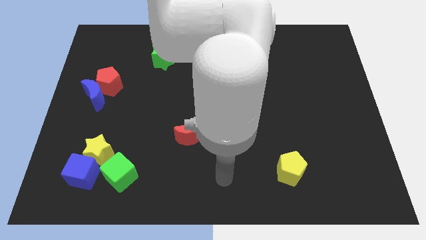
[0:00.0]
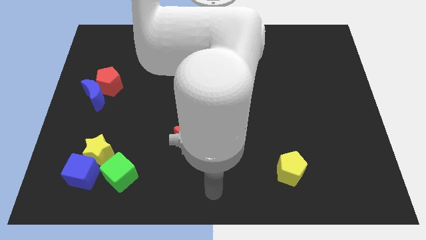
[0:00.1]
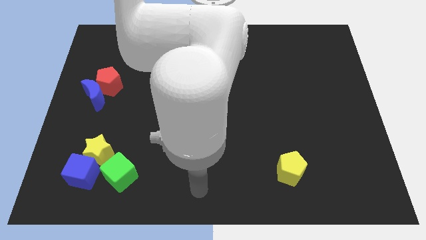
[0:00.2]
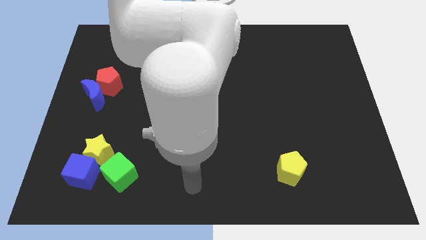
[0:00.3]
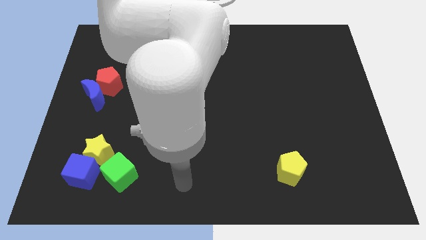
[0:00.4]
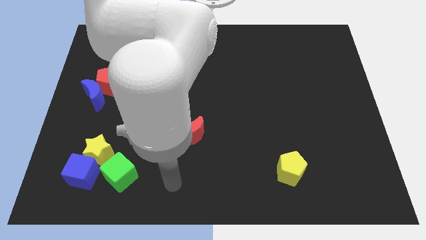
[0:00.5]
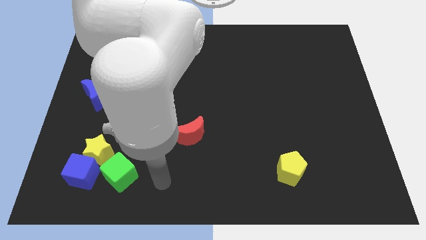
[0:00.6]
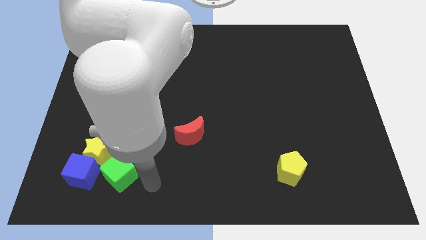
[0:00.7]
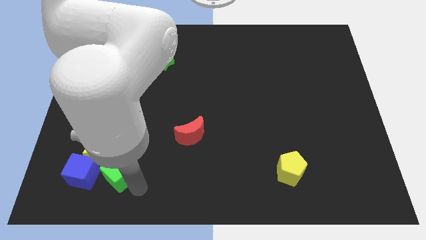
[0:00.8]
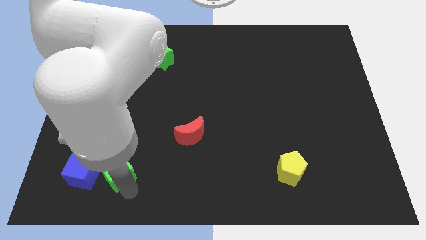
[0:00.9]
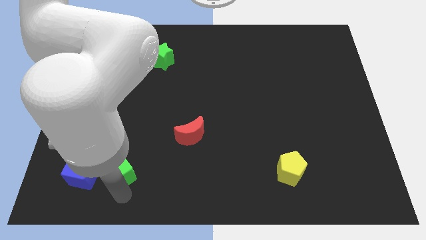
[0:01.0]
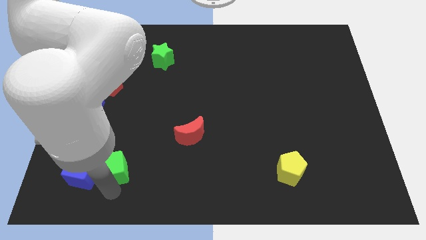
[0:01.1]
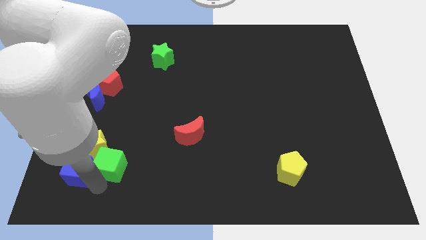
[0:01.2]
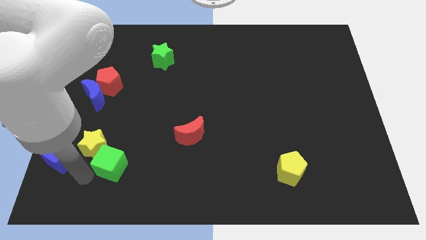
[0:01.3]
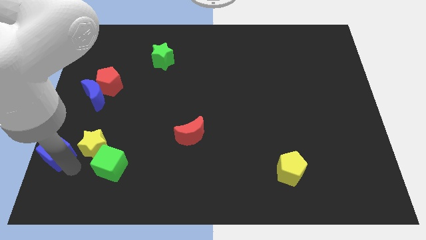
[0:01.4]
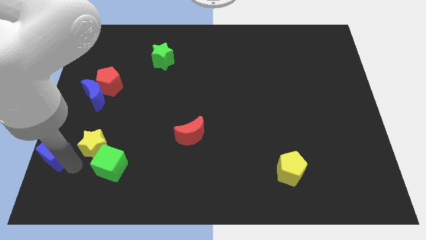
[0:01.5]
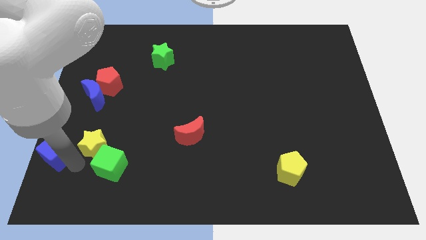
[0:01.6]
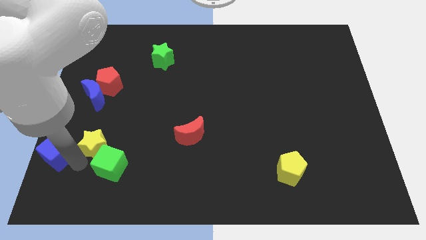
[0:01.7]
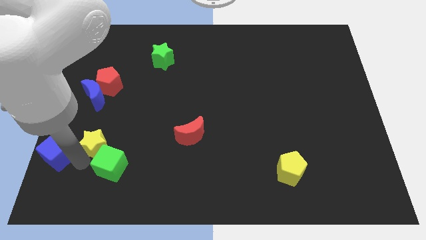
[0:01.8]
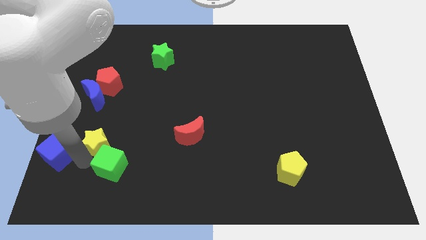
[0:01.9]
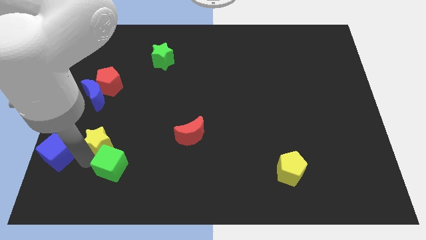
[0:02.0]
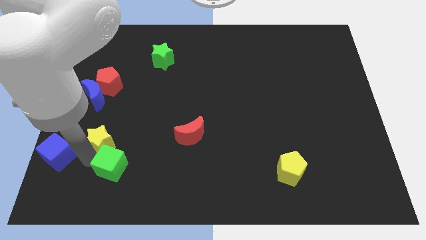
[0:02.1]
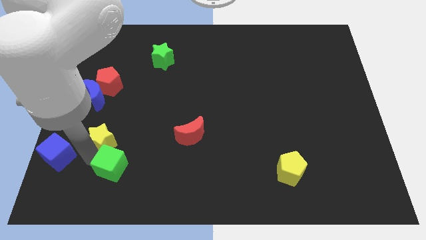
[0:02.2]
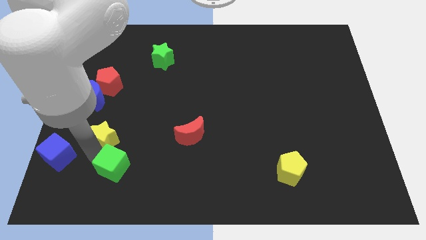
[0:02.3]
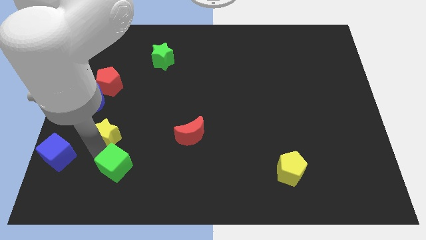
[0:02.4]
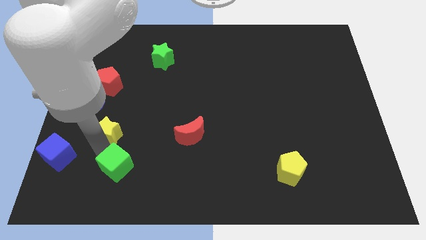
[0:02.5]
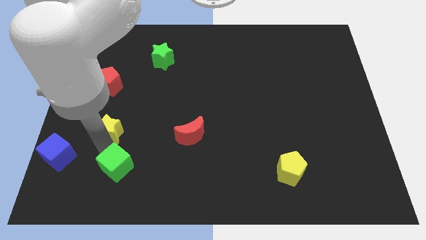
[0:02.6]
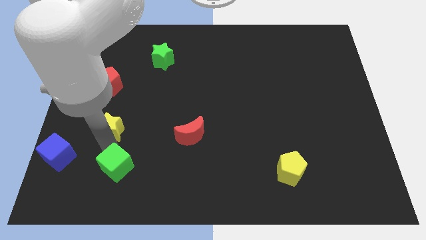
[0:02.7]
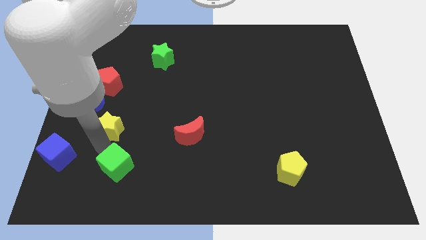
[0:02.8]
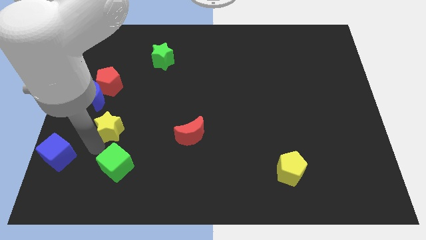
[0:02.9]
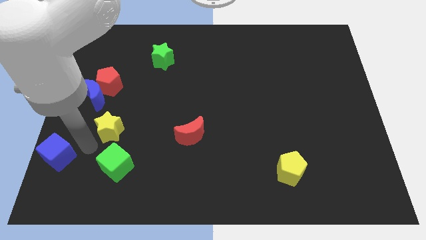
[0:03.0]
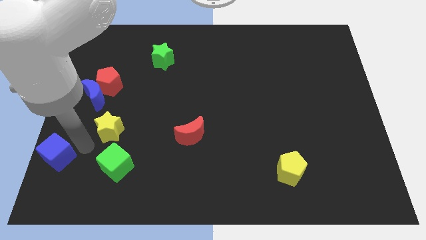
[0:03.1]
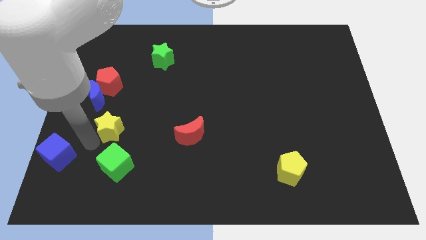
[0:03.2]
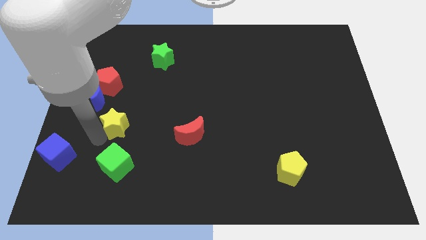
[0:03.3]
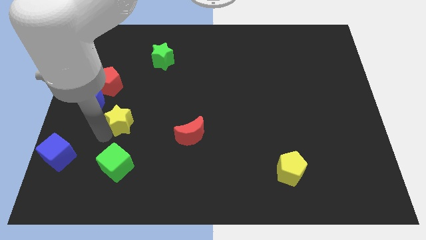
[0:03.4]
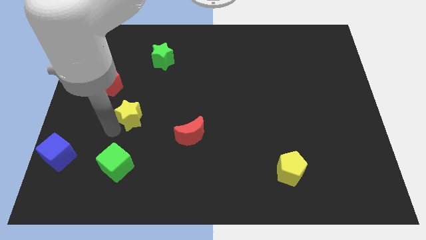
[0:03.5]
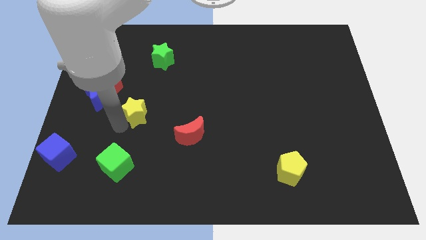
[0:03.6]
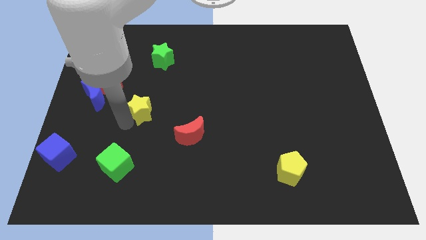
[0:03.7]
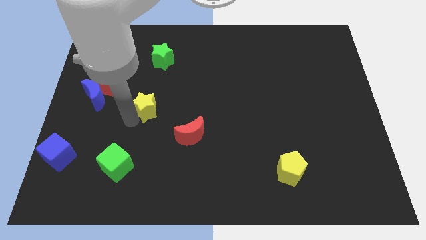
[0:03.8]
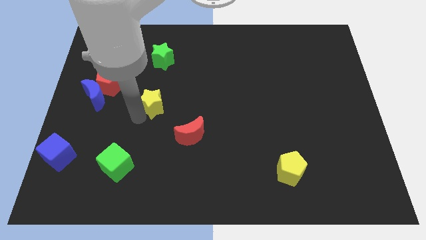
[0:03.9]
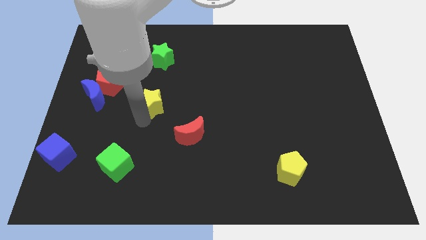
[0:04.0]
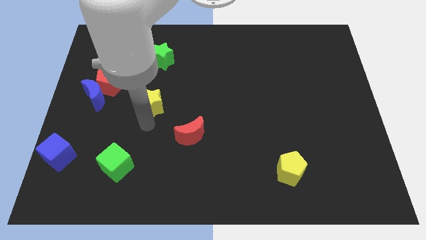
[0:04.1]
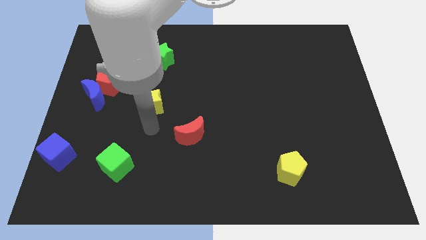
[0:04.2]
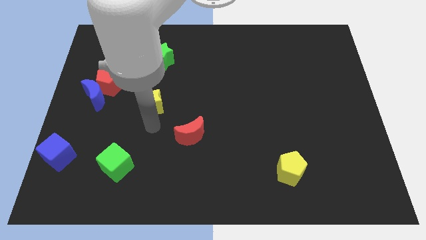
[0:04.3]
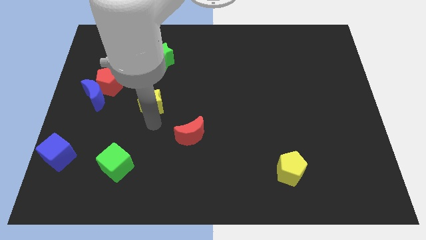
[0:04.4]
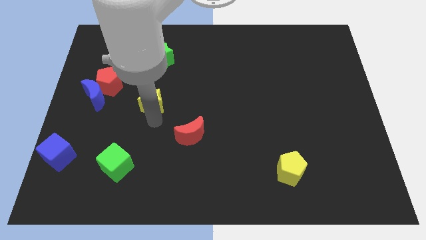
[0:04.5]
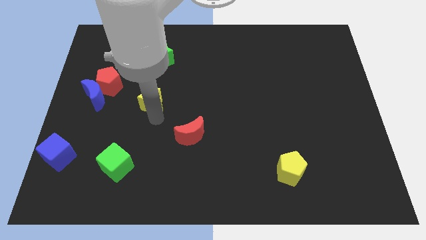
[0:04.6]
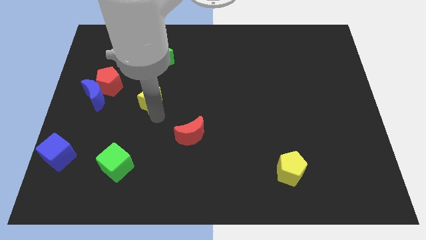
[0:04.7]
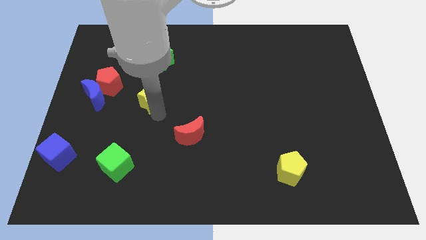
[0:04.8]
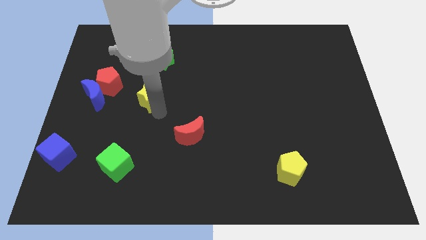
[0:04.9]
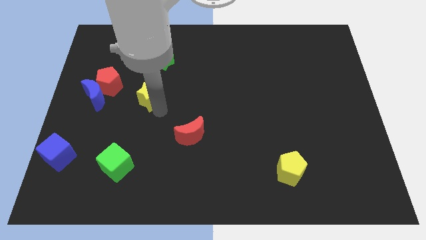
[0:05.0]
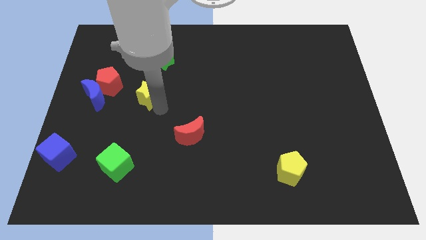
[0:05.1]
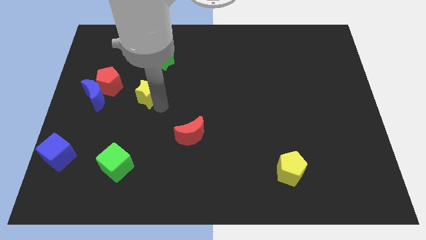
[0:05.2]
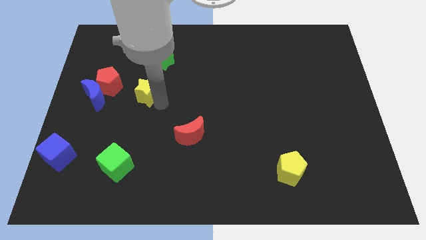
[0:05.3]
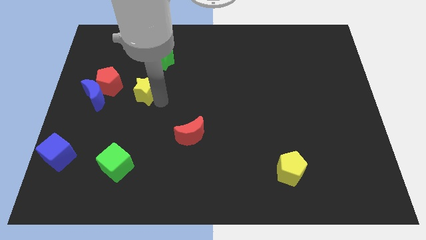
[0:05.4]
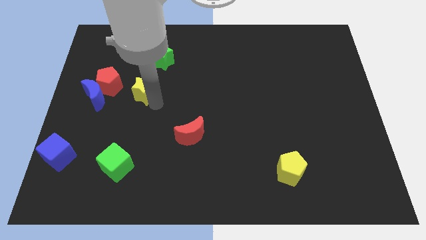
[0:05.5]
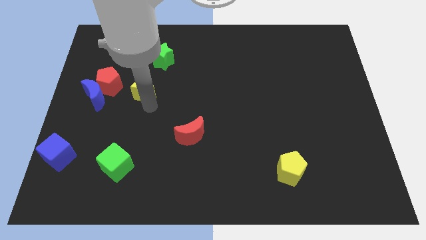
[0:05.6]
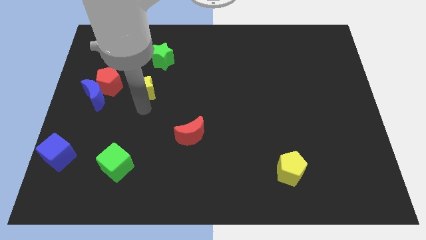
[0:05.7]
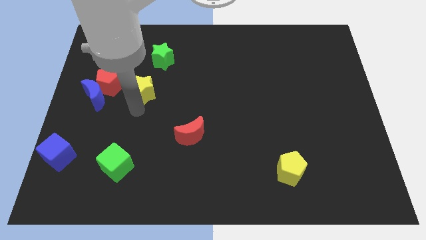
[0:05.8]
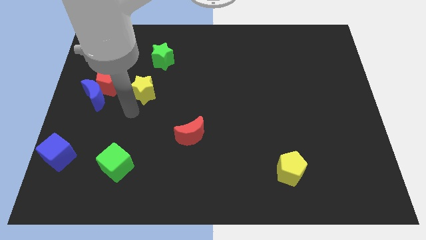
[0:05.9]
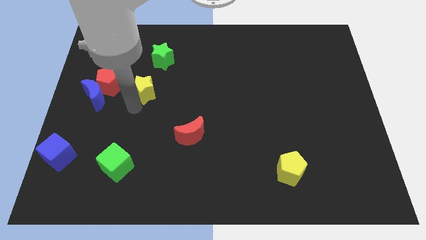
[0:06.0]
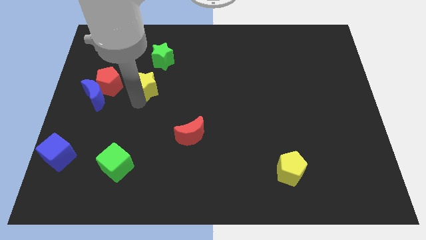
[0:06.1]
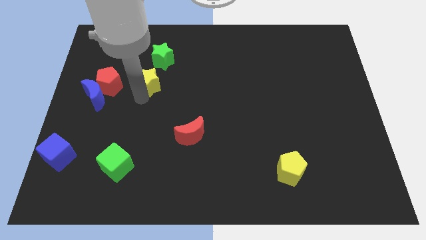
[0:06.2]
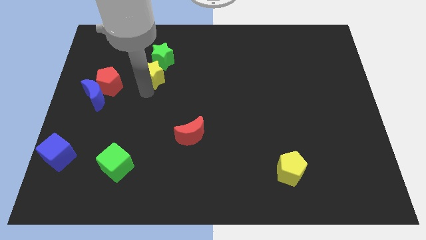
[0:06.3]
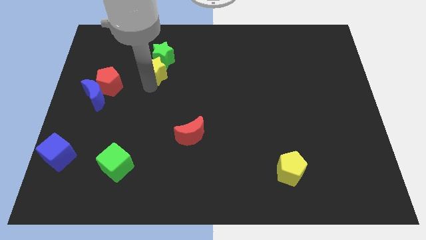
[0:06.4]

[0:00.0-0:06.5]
put the yellow star close to the green star
